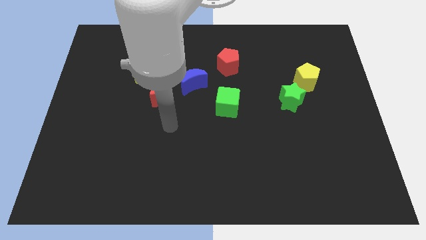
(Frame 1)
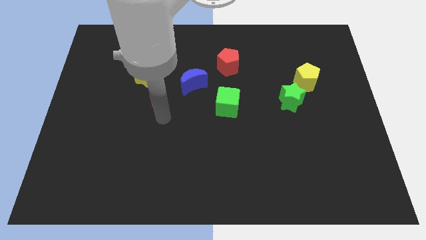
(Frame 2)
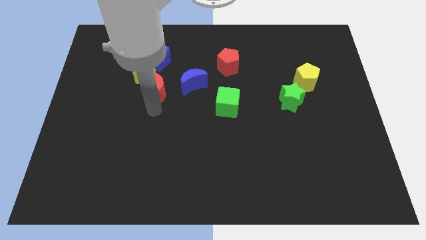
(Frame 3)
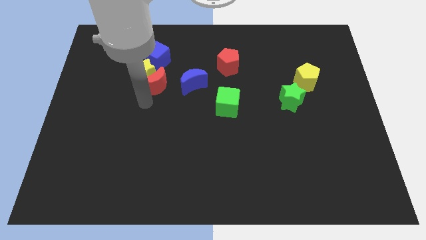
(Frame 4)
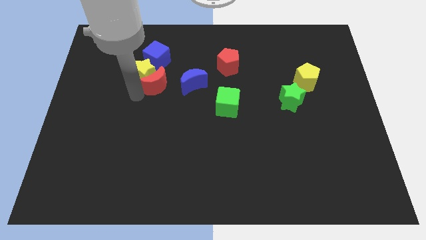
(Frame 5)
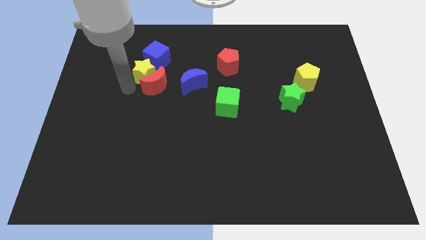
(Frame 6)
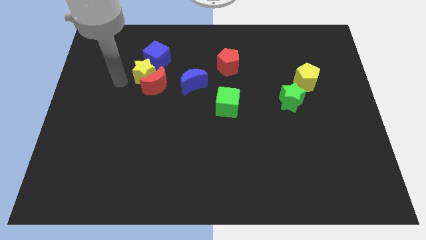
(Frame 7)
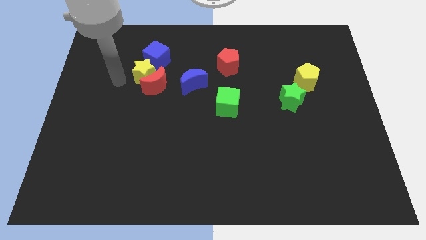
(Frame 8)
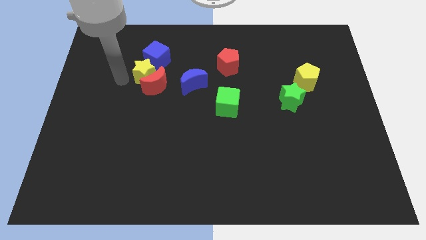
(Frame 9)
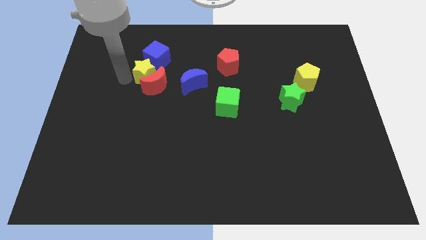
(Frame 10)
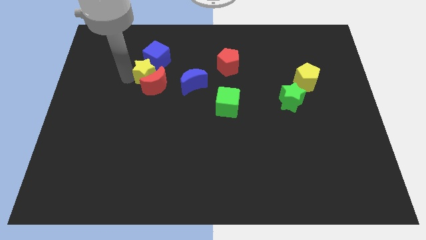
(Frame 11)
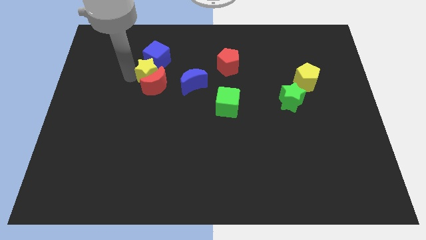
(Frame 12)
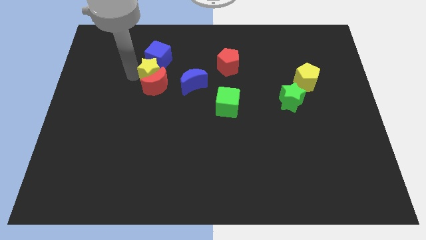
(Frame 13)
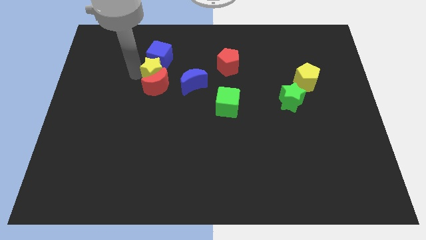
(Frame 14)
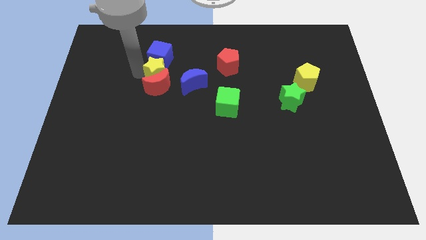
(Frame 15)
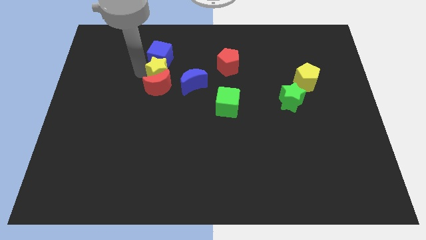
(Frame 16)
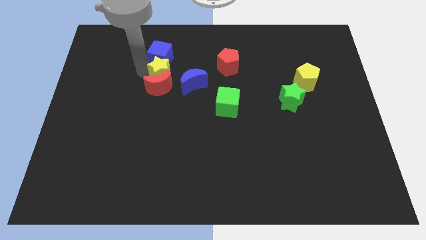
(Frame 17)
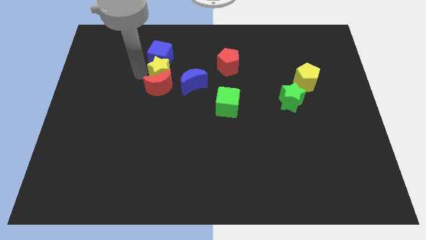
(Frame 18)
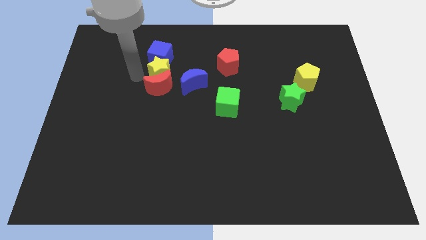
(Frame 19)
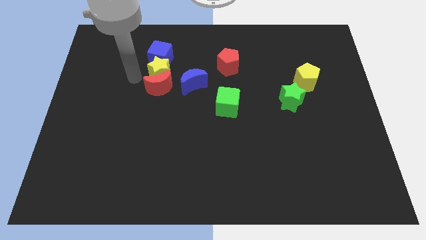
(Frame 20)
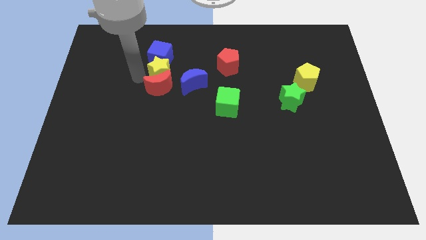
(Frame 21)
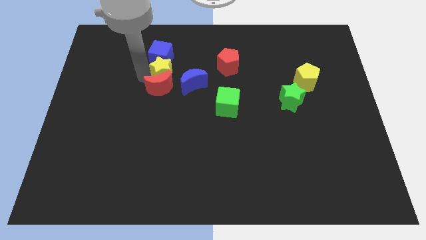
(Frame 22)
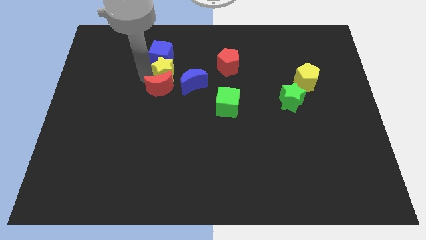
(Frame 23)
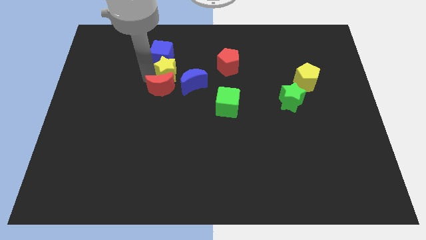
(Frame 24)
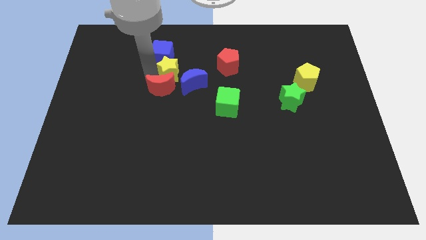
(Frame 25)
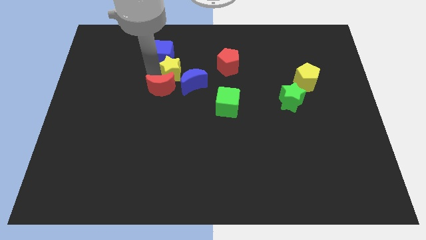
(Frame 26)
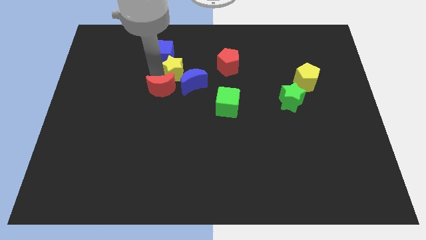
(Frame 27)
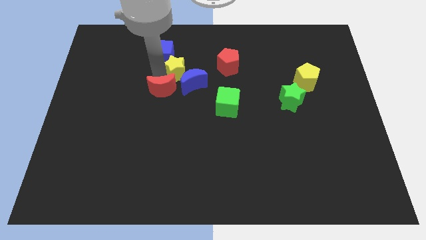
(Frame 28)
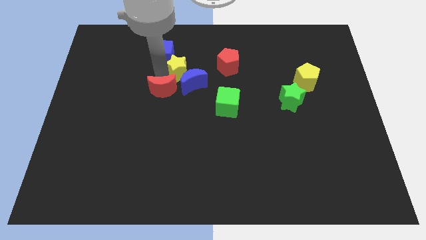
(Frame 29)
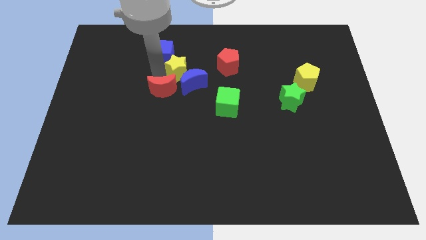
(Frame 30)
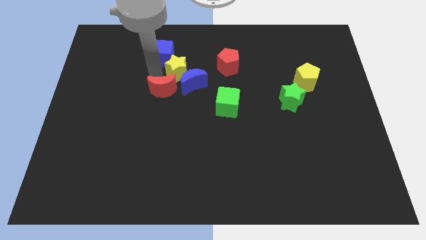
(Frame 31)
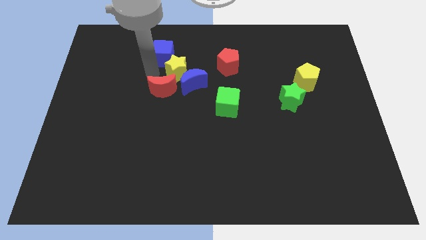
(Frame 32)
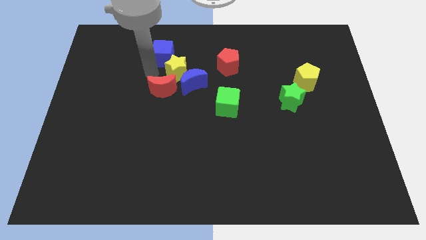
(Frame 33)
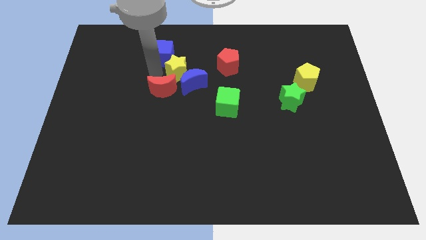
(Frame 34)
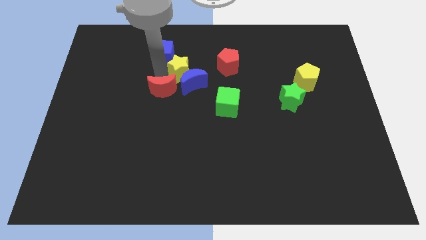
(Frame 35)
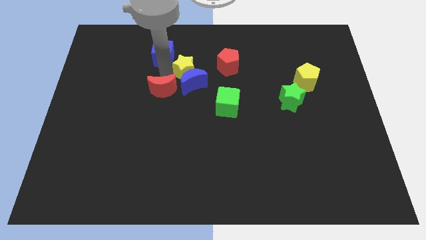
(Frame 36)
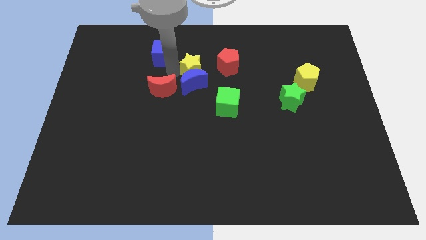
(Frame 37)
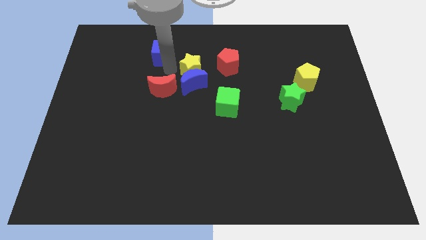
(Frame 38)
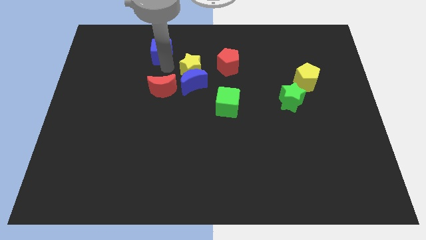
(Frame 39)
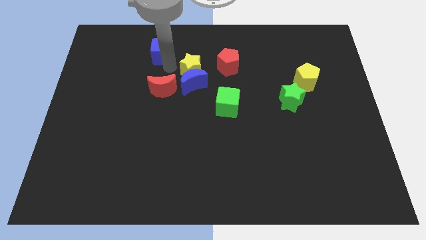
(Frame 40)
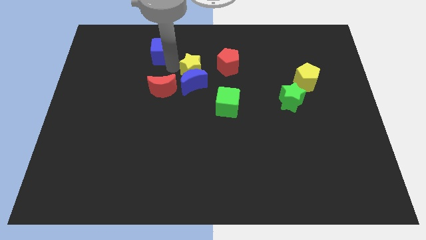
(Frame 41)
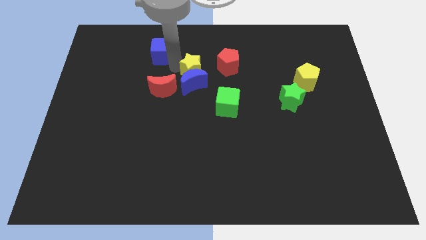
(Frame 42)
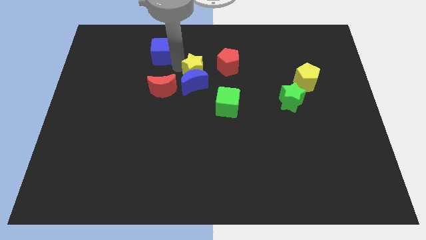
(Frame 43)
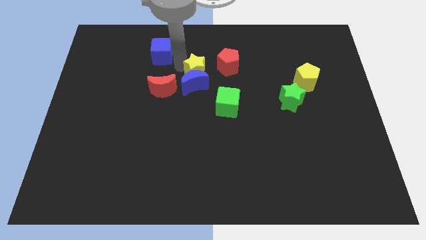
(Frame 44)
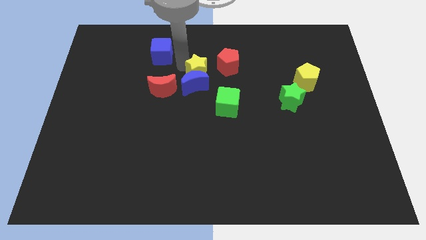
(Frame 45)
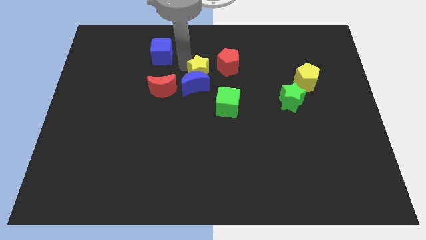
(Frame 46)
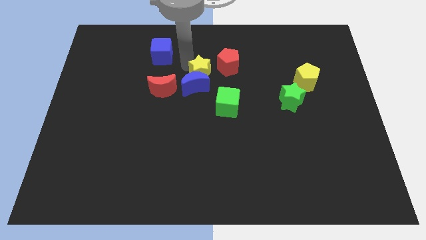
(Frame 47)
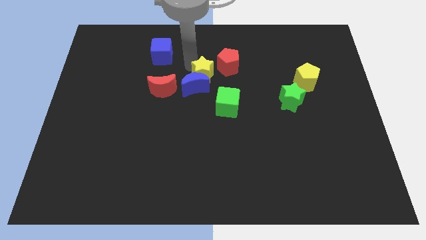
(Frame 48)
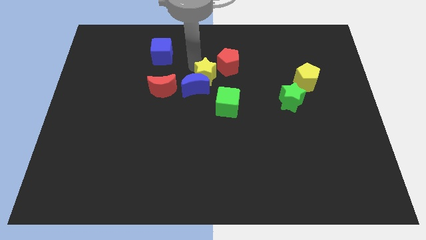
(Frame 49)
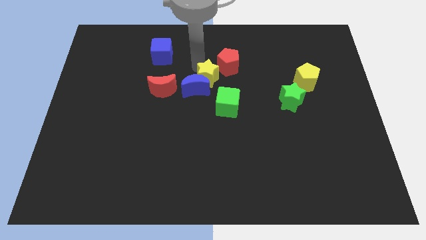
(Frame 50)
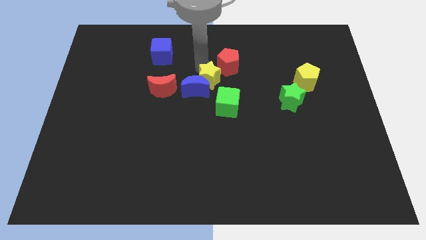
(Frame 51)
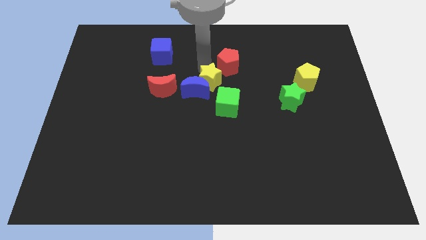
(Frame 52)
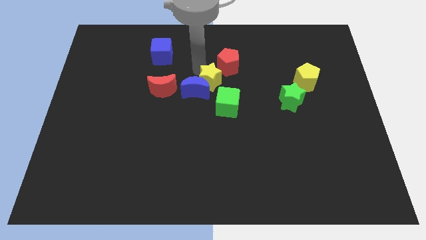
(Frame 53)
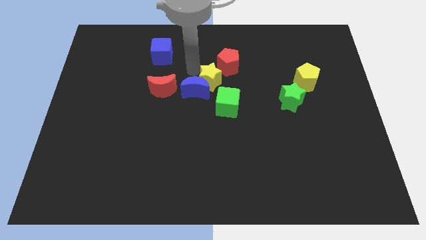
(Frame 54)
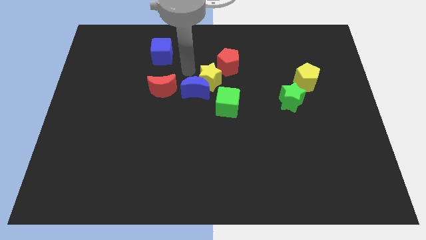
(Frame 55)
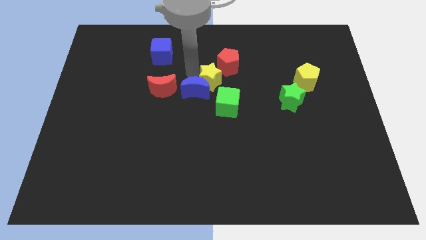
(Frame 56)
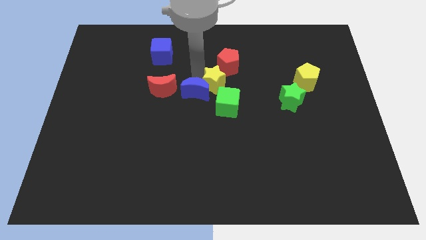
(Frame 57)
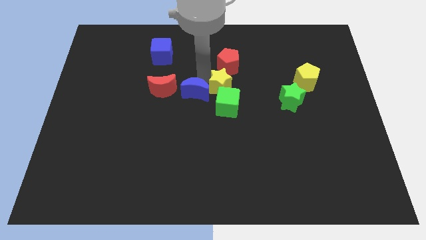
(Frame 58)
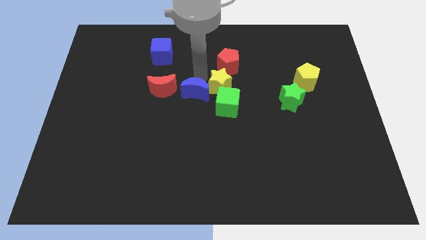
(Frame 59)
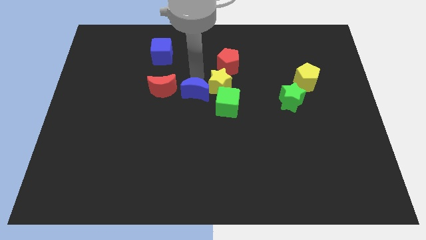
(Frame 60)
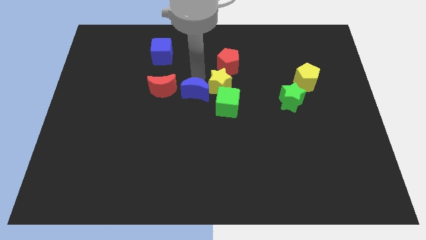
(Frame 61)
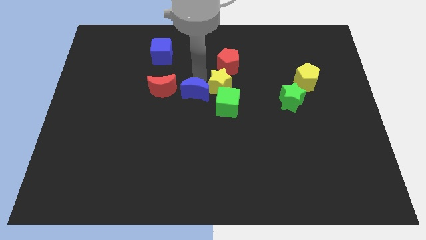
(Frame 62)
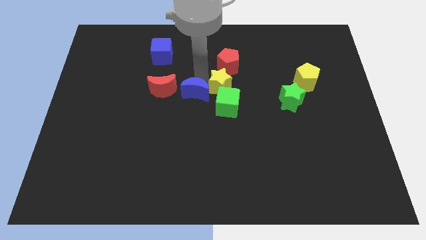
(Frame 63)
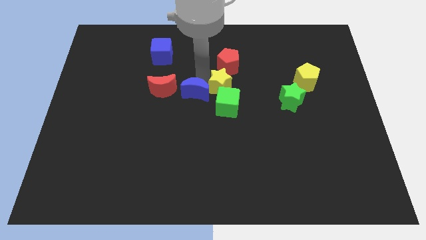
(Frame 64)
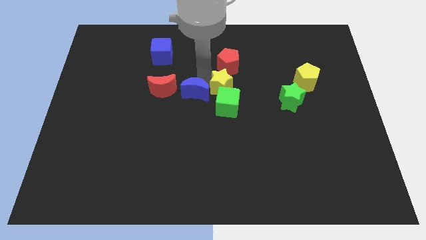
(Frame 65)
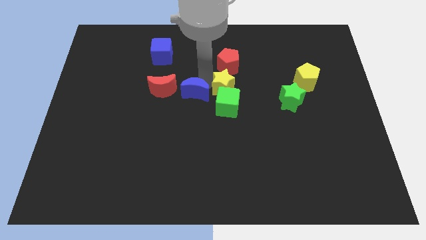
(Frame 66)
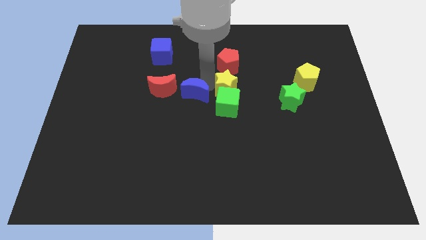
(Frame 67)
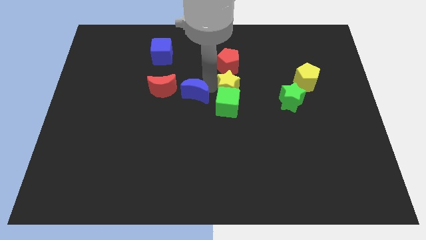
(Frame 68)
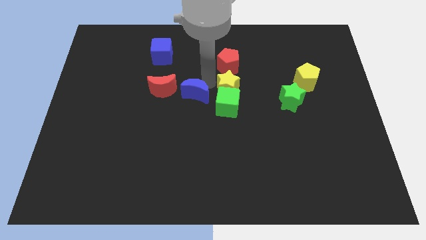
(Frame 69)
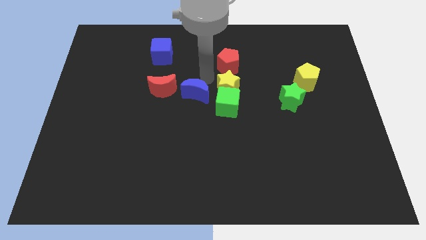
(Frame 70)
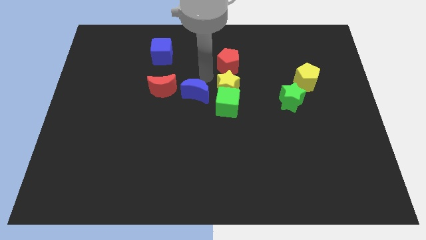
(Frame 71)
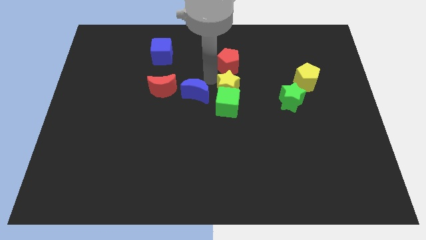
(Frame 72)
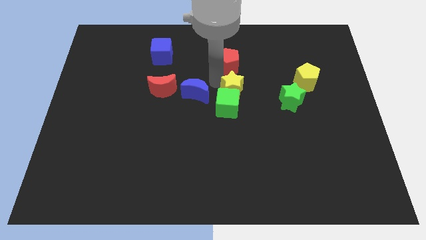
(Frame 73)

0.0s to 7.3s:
push the yellow star just left of the green star

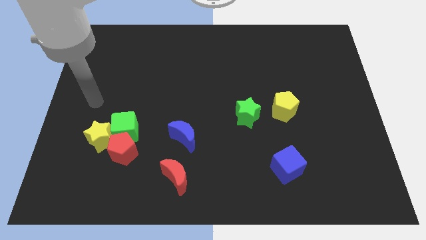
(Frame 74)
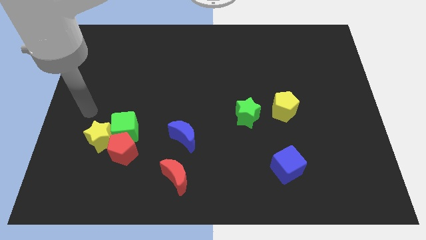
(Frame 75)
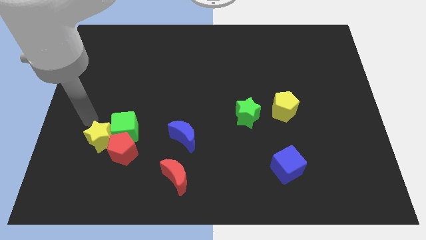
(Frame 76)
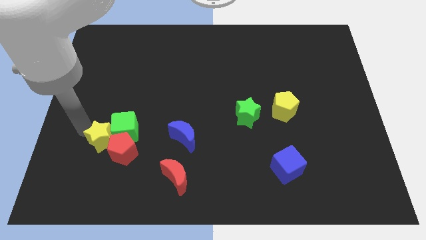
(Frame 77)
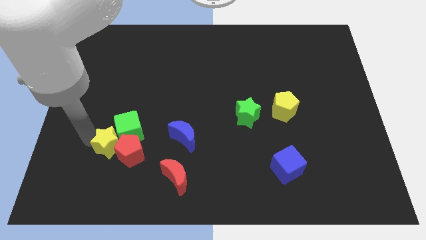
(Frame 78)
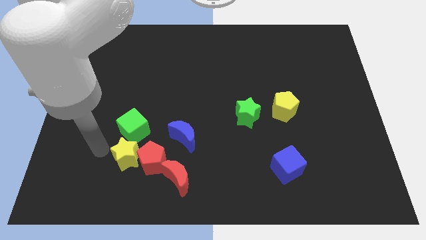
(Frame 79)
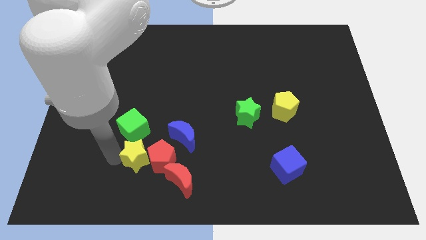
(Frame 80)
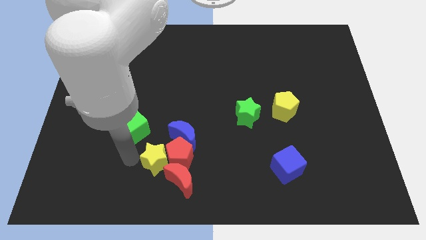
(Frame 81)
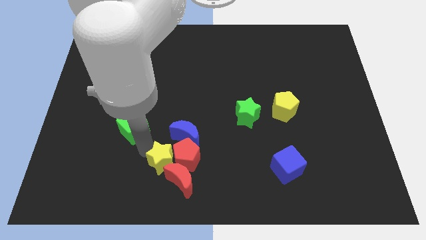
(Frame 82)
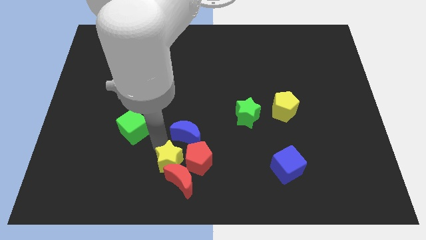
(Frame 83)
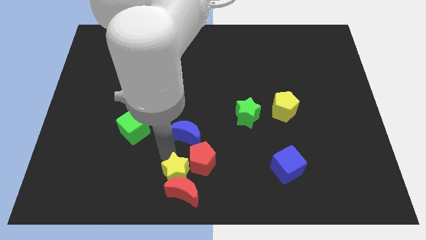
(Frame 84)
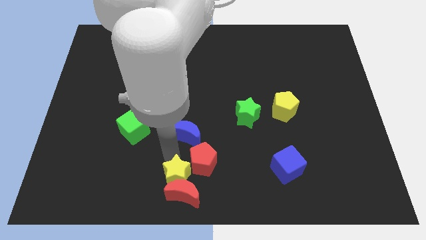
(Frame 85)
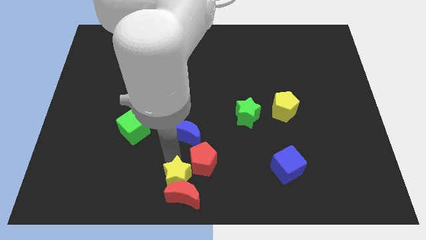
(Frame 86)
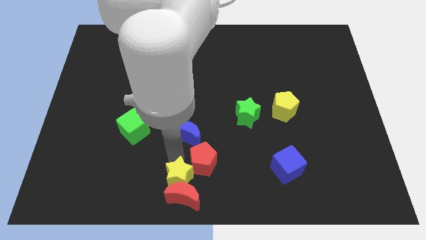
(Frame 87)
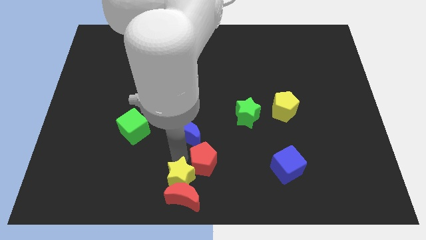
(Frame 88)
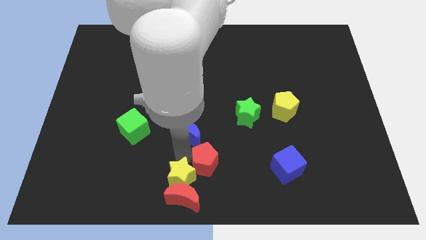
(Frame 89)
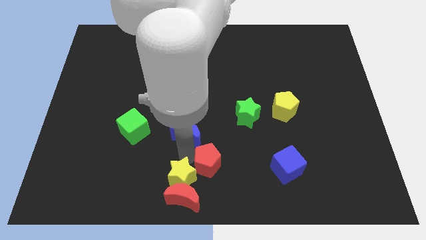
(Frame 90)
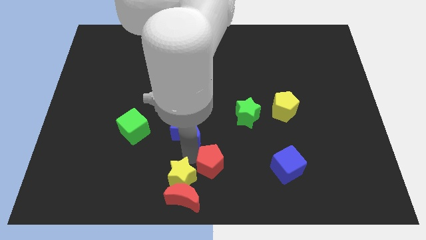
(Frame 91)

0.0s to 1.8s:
slide the red pentagon just left of the blue cube
